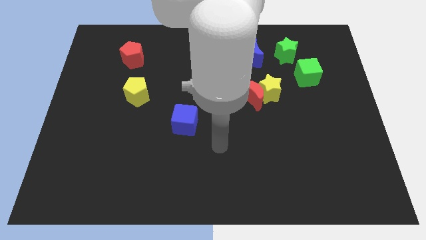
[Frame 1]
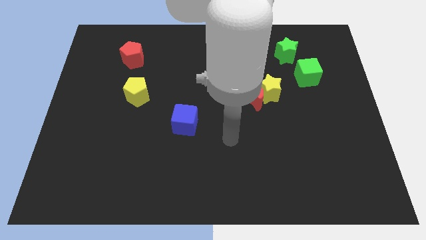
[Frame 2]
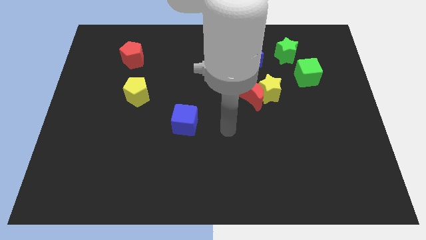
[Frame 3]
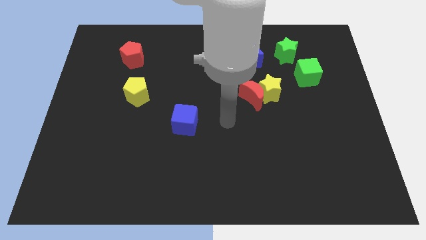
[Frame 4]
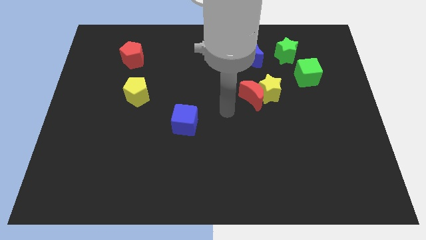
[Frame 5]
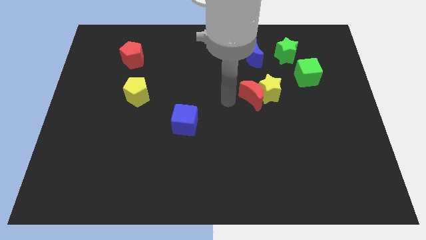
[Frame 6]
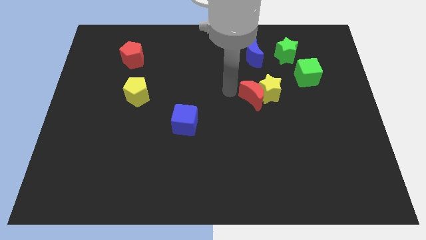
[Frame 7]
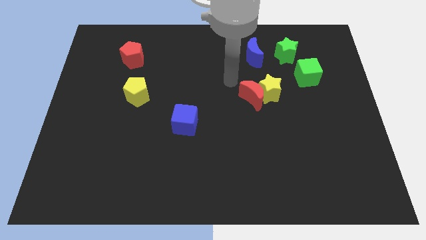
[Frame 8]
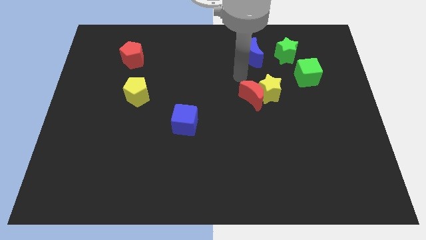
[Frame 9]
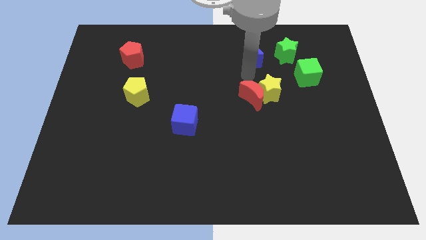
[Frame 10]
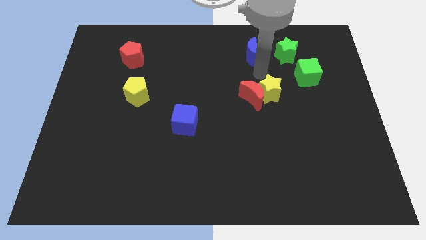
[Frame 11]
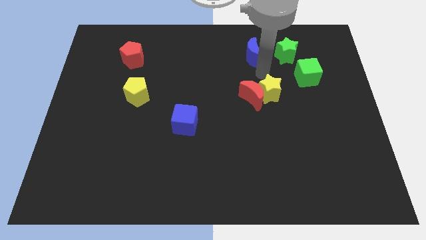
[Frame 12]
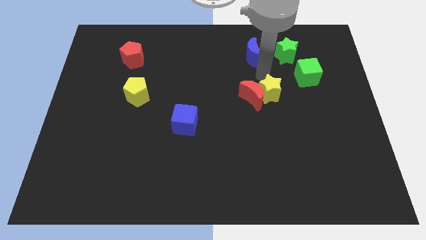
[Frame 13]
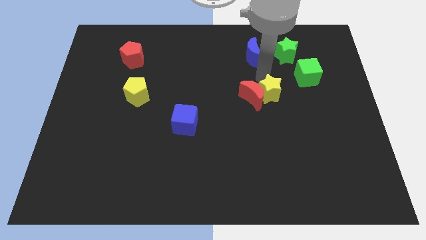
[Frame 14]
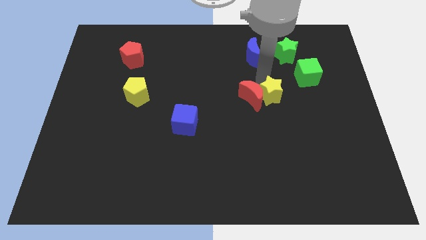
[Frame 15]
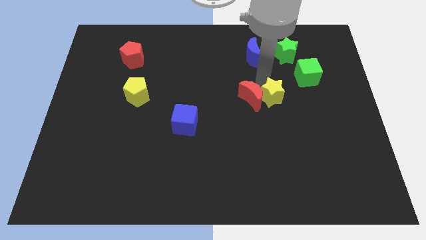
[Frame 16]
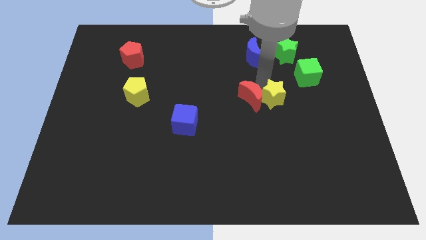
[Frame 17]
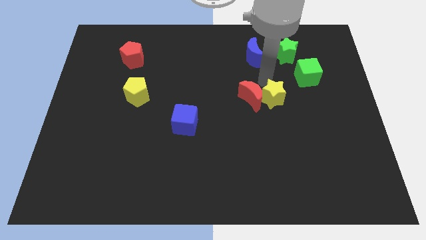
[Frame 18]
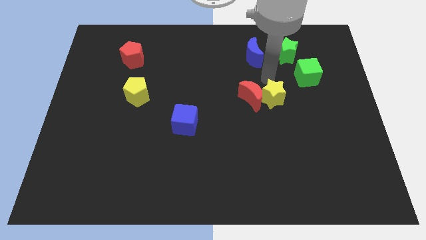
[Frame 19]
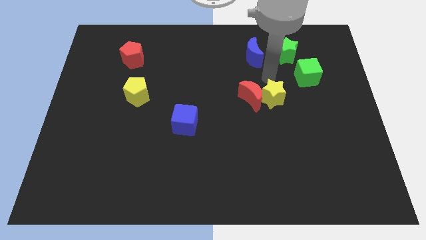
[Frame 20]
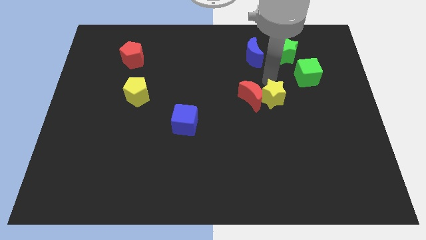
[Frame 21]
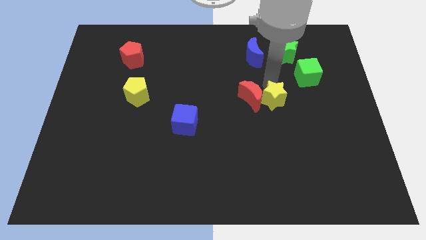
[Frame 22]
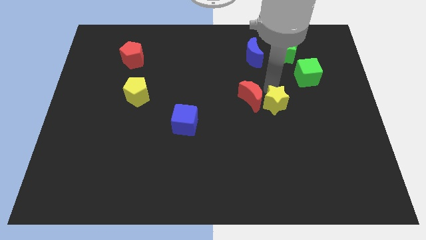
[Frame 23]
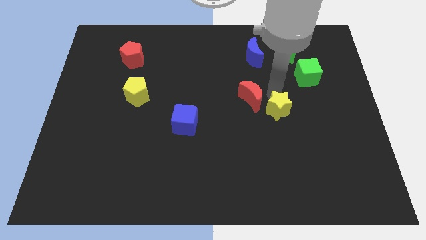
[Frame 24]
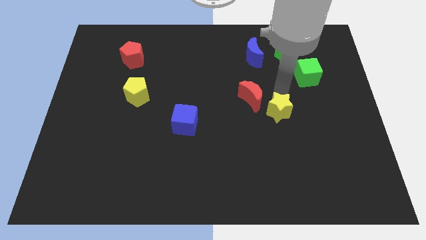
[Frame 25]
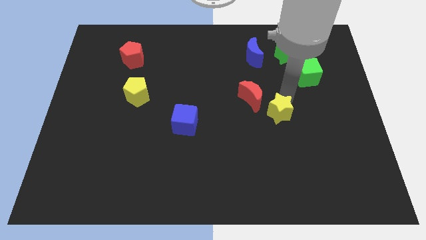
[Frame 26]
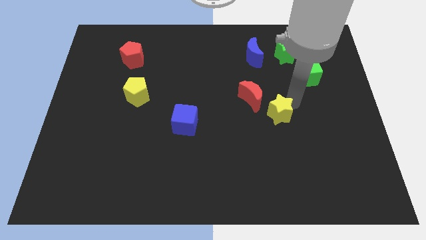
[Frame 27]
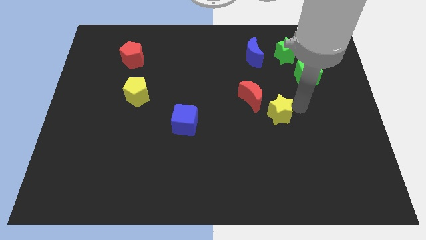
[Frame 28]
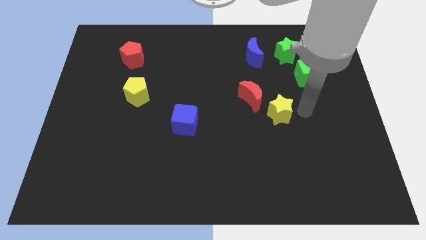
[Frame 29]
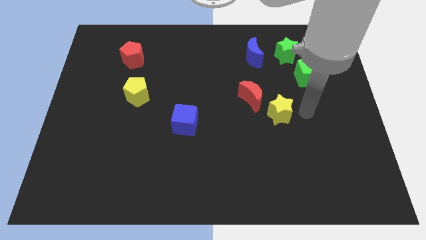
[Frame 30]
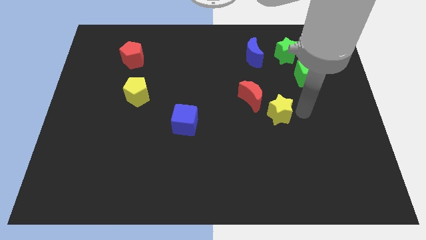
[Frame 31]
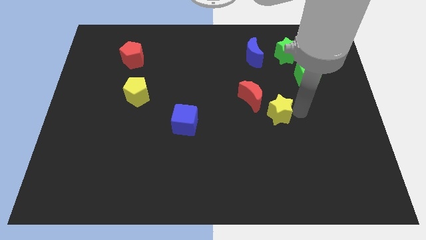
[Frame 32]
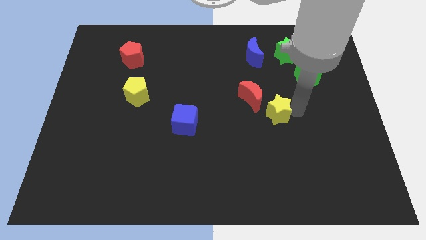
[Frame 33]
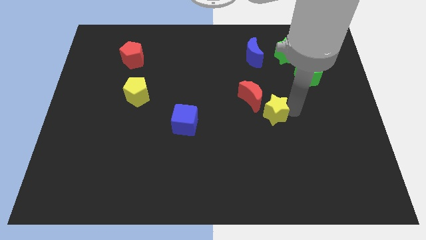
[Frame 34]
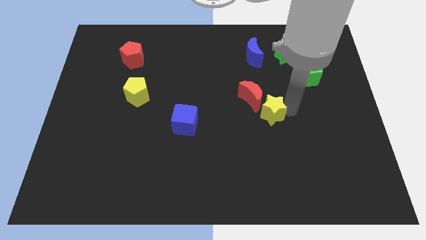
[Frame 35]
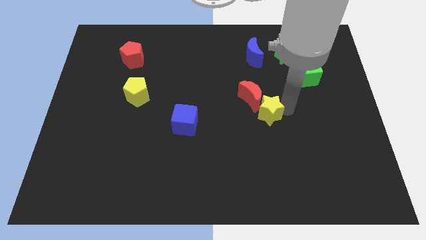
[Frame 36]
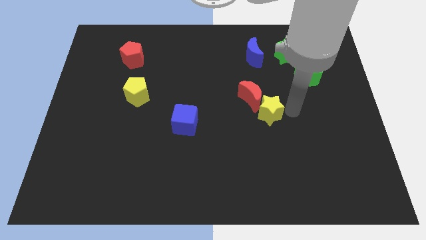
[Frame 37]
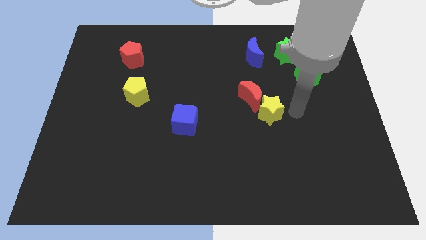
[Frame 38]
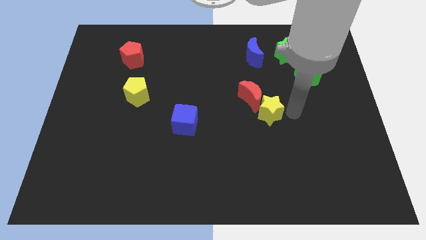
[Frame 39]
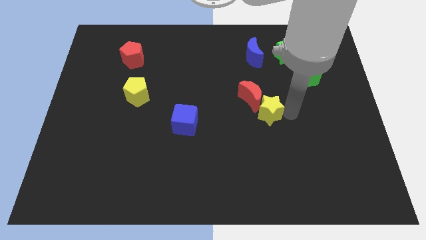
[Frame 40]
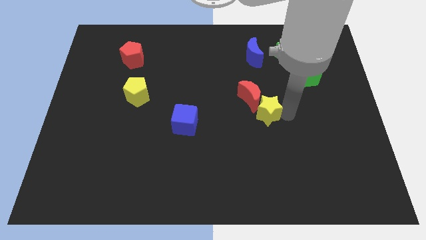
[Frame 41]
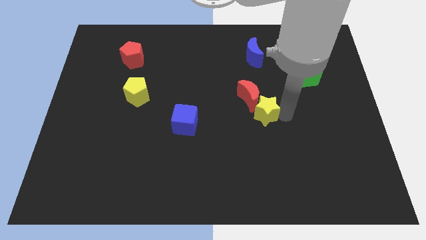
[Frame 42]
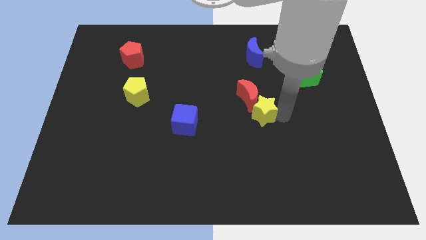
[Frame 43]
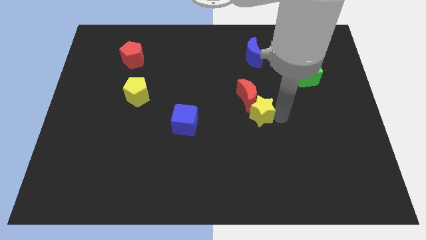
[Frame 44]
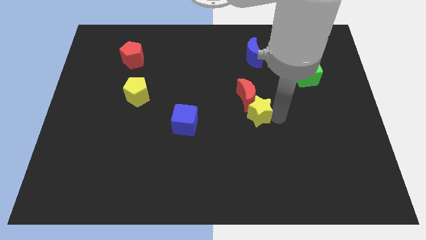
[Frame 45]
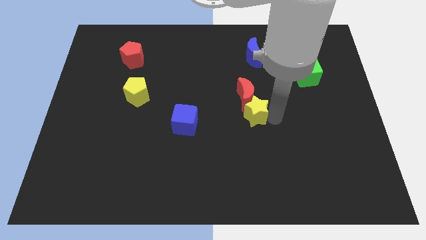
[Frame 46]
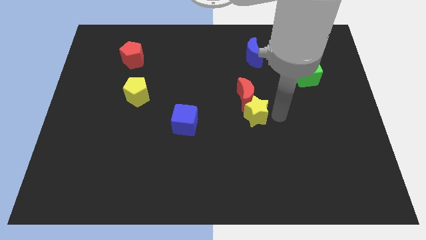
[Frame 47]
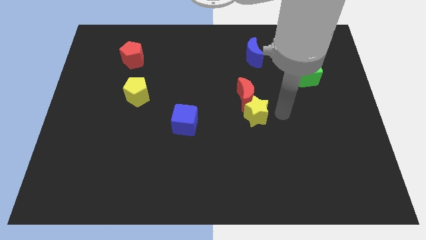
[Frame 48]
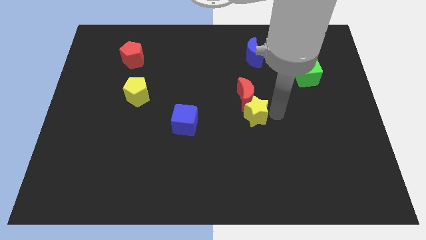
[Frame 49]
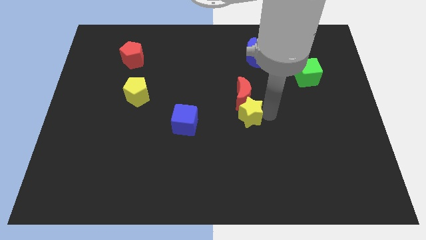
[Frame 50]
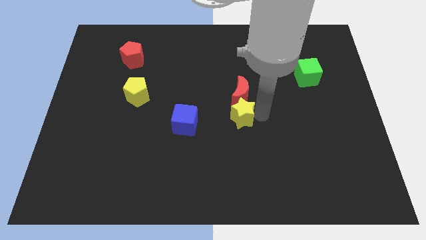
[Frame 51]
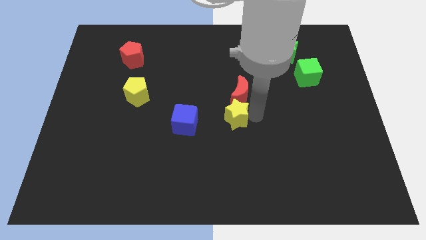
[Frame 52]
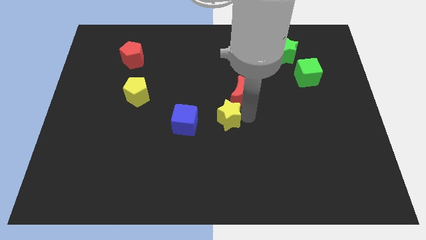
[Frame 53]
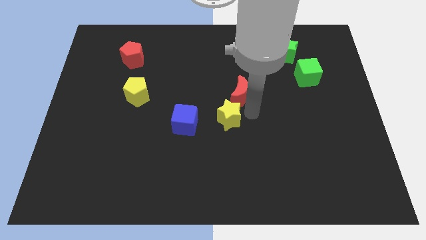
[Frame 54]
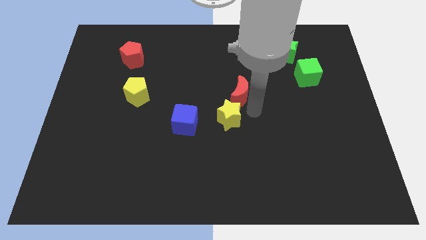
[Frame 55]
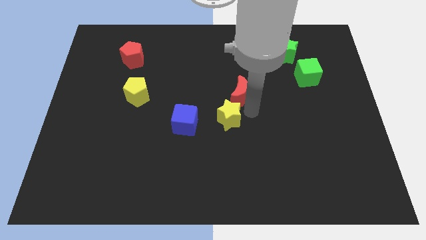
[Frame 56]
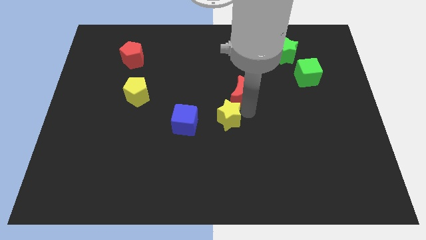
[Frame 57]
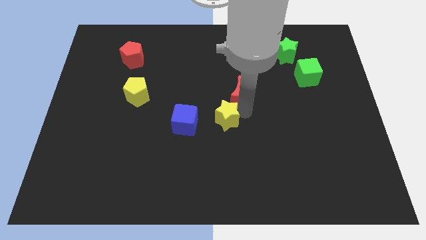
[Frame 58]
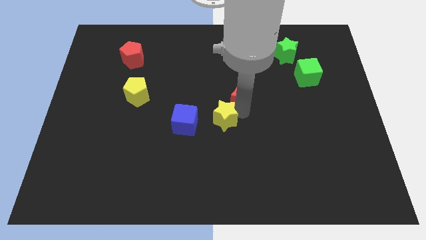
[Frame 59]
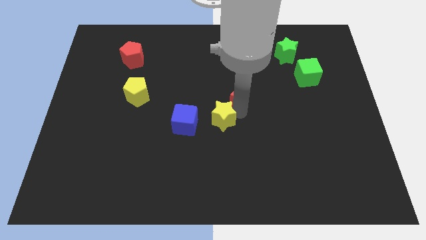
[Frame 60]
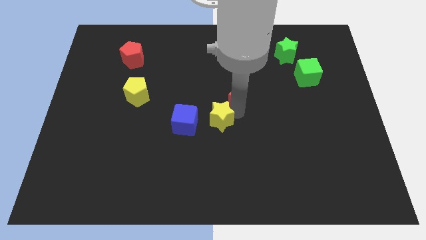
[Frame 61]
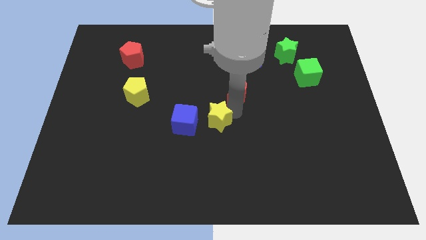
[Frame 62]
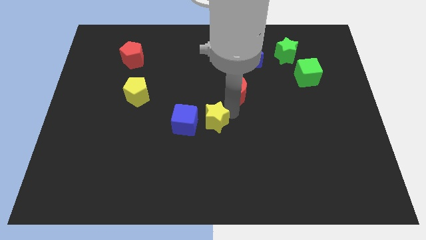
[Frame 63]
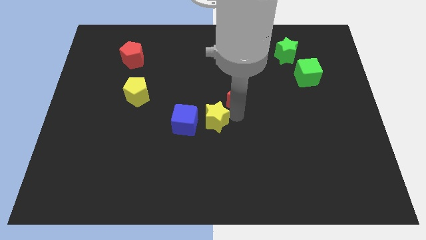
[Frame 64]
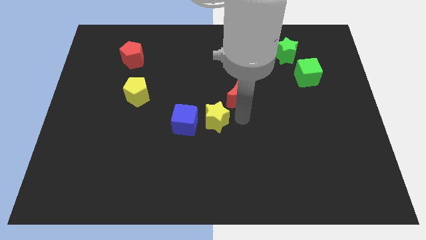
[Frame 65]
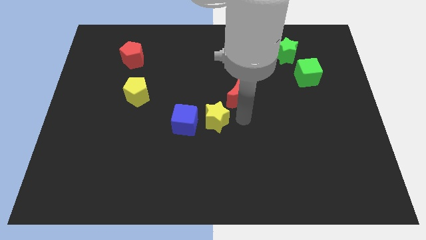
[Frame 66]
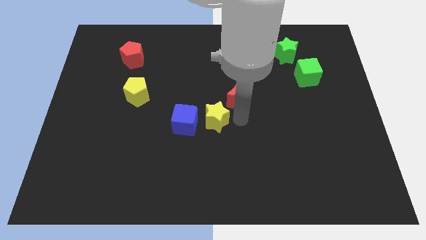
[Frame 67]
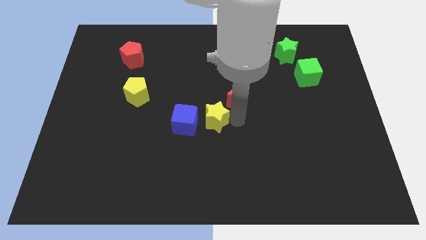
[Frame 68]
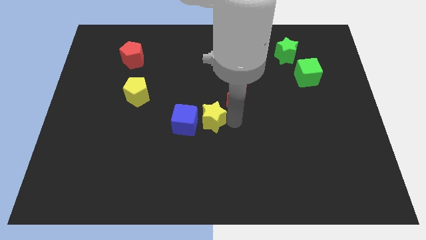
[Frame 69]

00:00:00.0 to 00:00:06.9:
push the yellow star close to the blue cube
